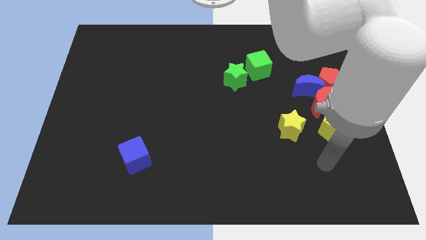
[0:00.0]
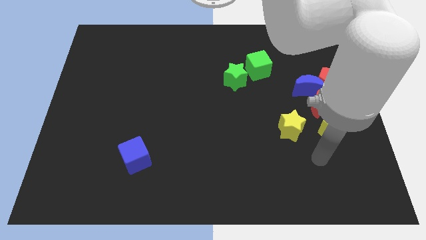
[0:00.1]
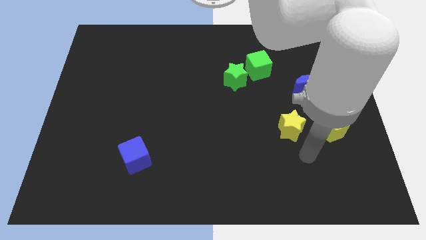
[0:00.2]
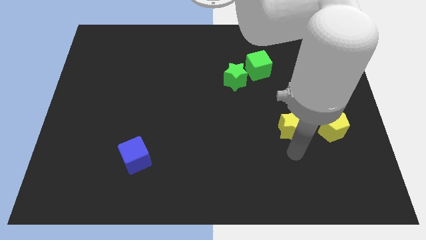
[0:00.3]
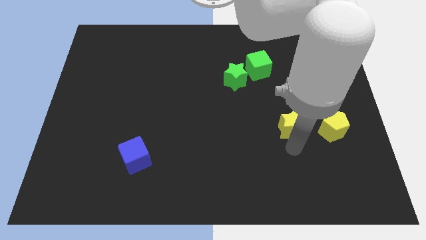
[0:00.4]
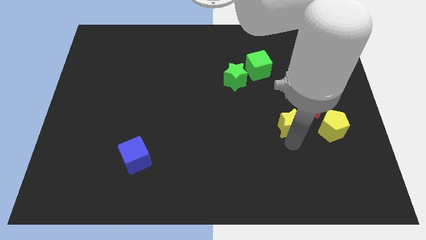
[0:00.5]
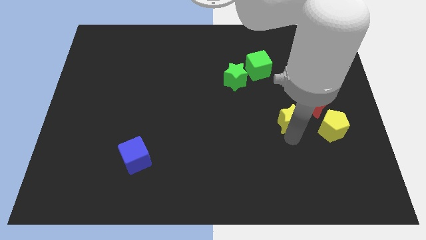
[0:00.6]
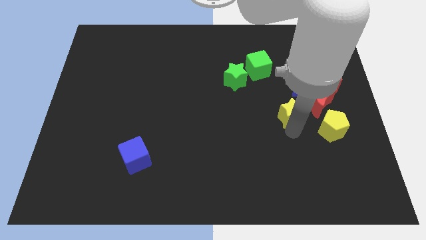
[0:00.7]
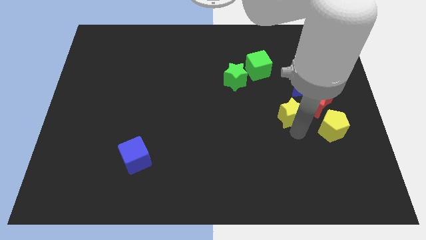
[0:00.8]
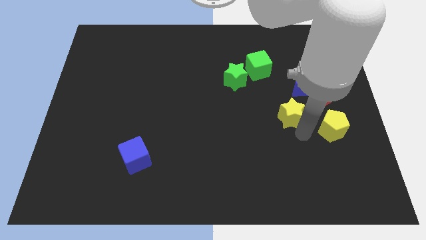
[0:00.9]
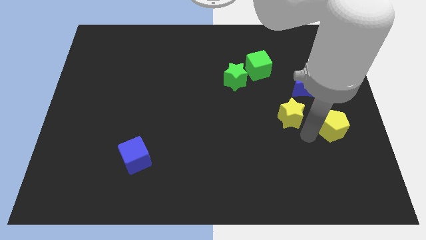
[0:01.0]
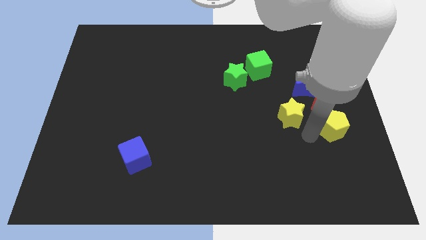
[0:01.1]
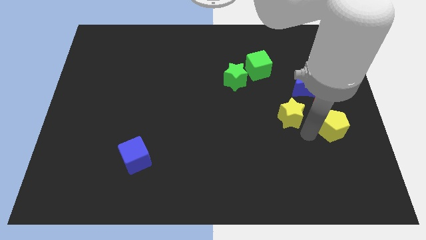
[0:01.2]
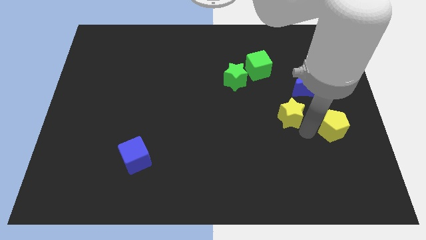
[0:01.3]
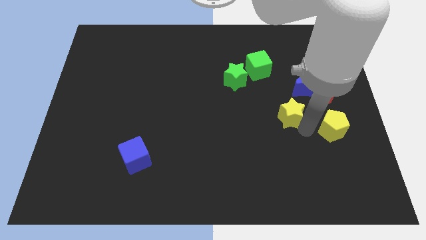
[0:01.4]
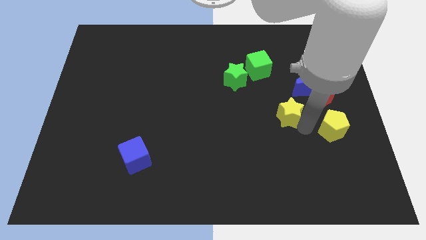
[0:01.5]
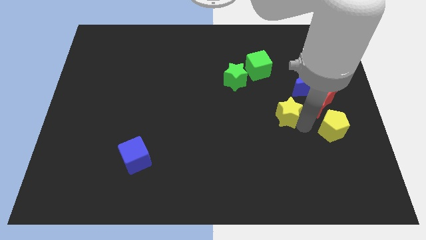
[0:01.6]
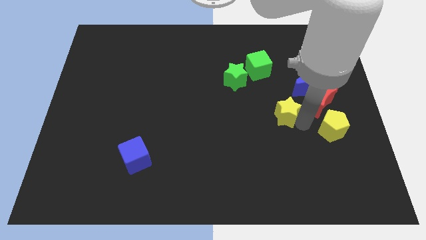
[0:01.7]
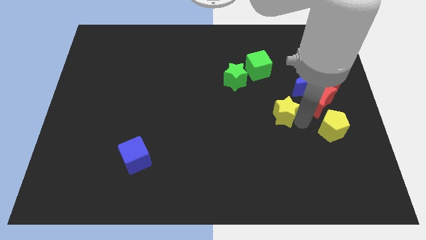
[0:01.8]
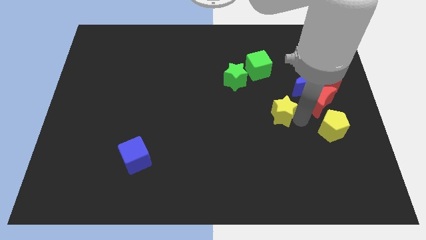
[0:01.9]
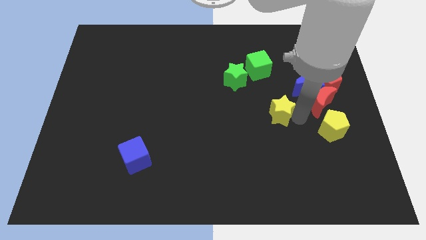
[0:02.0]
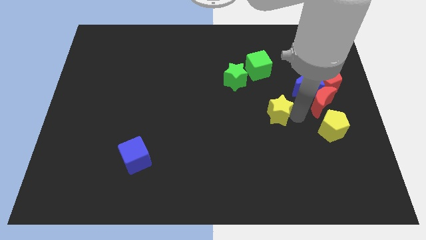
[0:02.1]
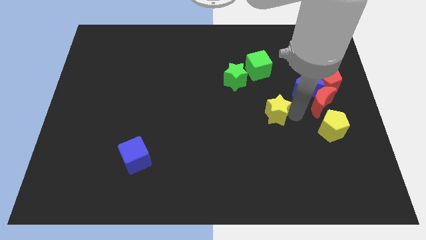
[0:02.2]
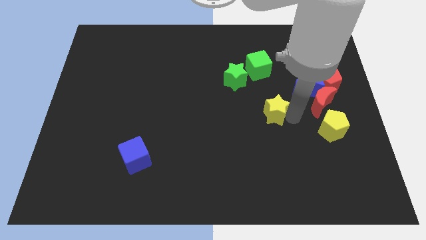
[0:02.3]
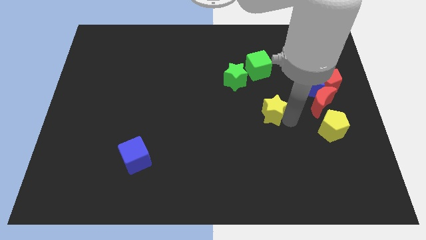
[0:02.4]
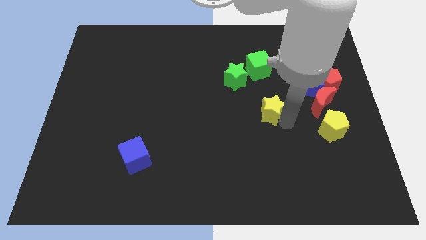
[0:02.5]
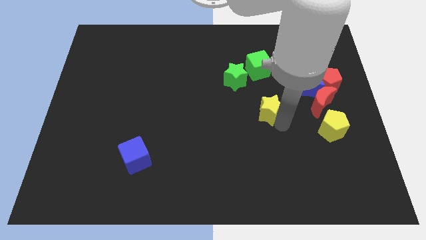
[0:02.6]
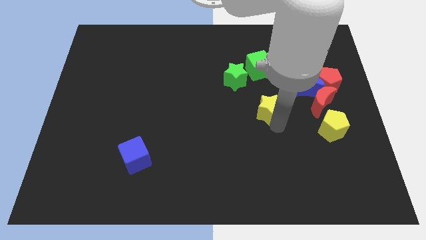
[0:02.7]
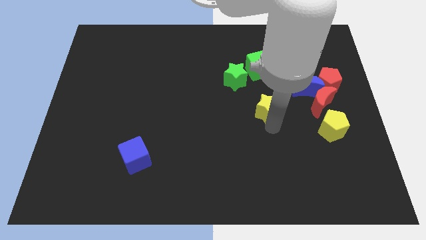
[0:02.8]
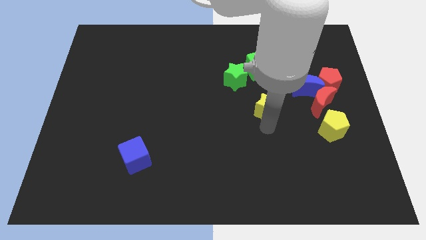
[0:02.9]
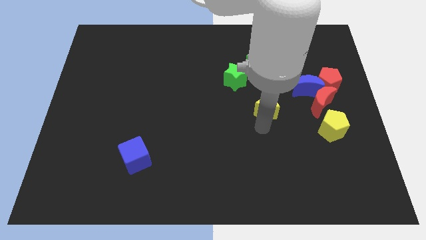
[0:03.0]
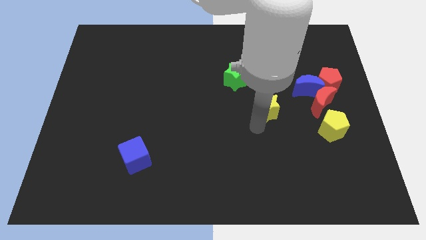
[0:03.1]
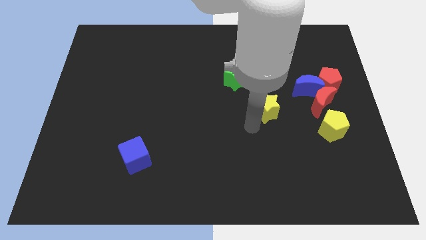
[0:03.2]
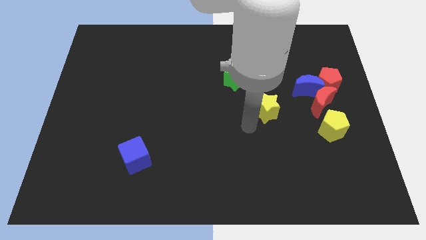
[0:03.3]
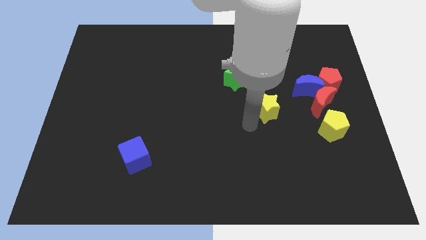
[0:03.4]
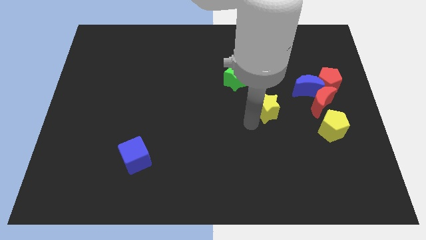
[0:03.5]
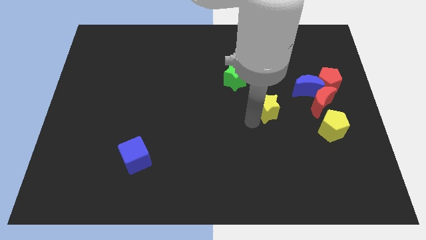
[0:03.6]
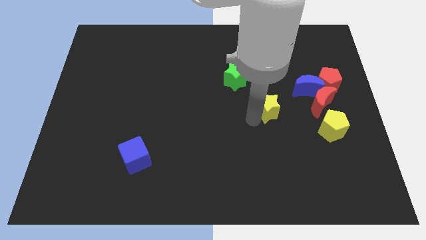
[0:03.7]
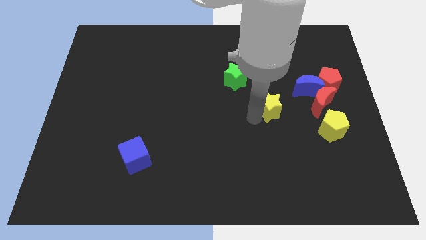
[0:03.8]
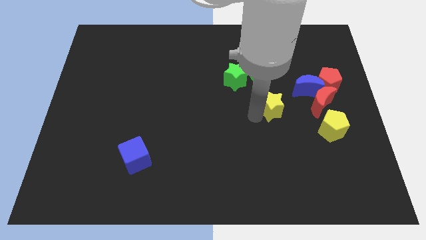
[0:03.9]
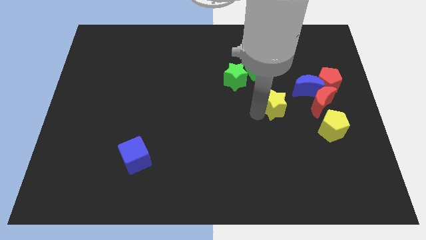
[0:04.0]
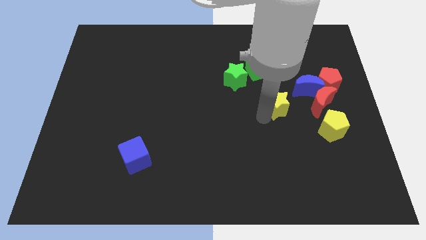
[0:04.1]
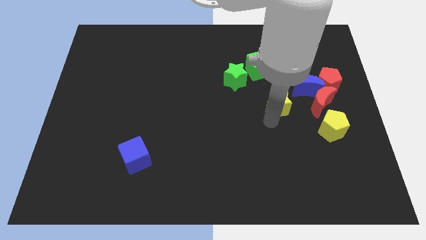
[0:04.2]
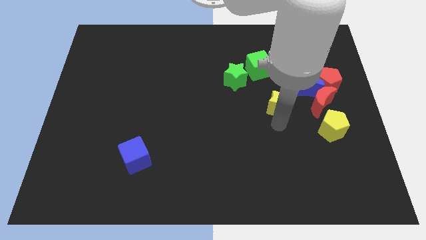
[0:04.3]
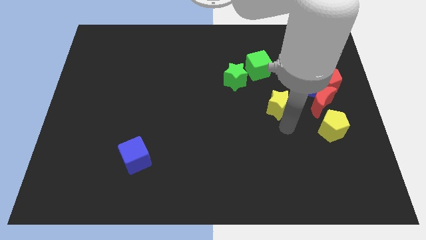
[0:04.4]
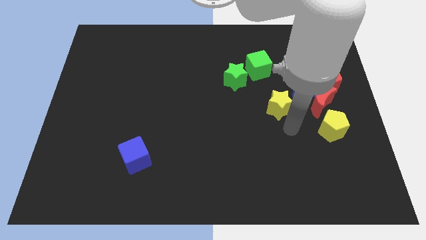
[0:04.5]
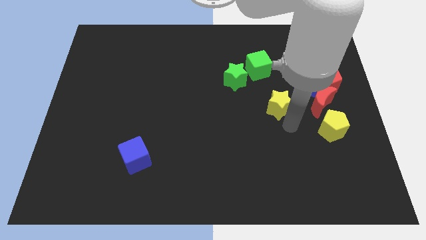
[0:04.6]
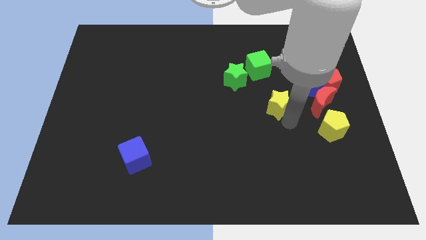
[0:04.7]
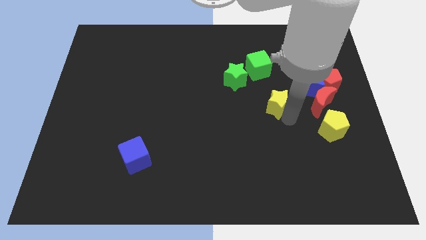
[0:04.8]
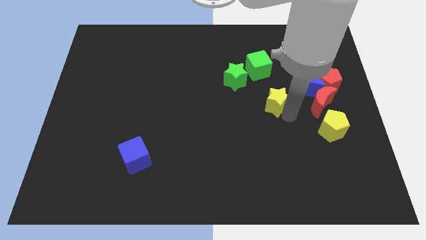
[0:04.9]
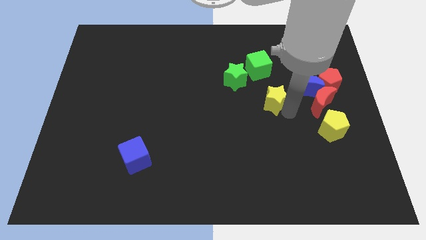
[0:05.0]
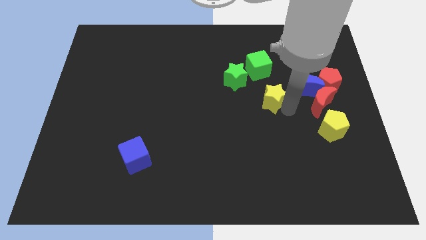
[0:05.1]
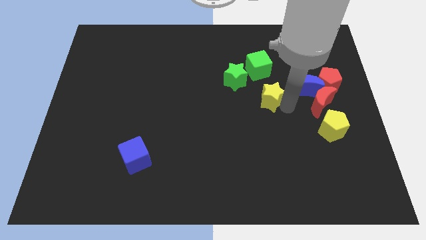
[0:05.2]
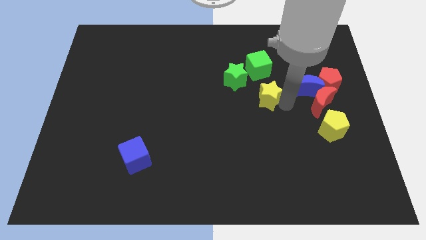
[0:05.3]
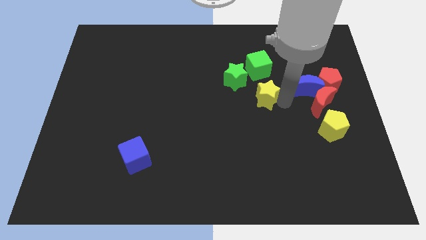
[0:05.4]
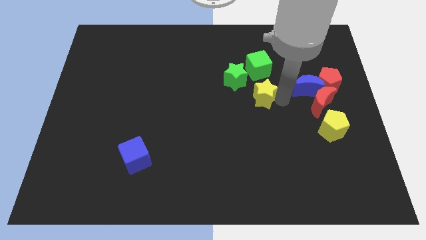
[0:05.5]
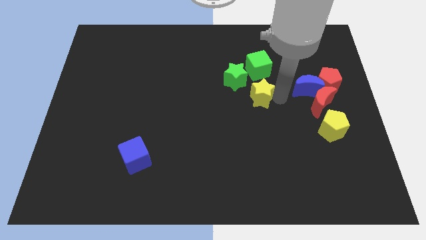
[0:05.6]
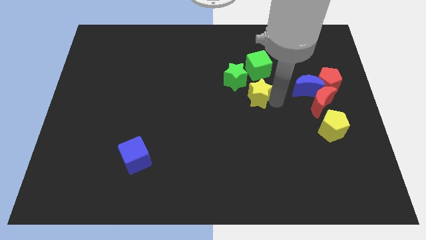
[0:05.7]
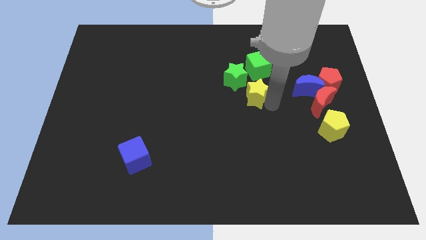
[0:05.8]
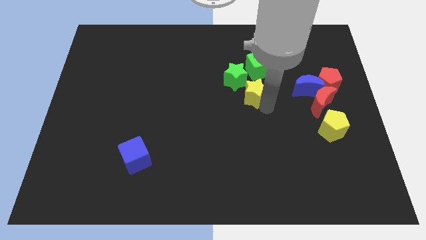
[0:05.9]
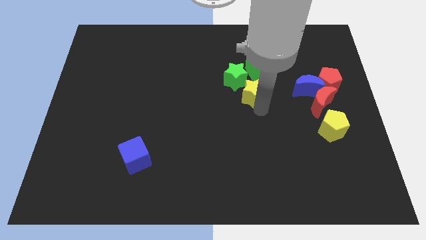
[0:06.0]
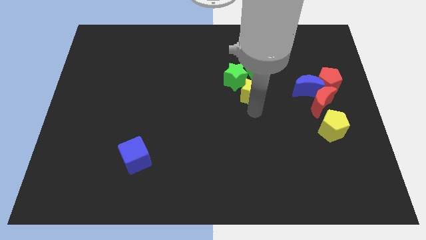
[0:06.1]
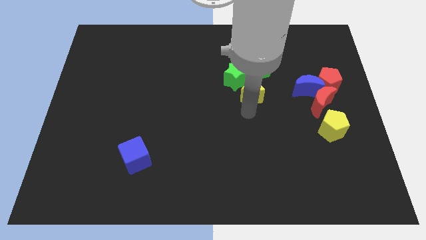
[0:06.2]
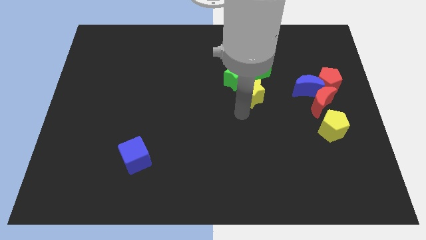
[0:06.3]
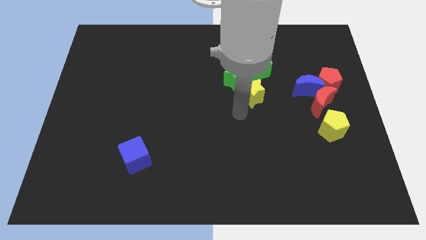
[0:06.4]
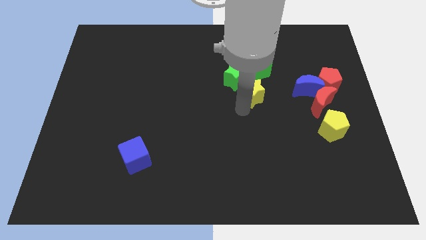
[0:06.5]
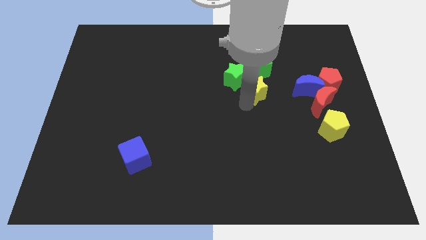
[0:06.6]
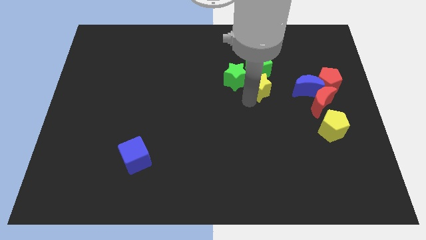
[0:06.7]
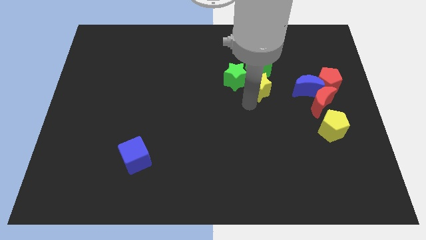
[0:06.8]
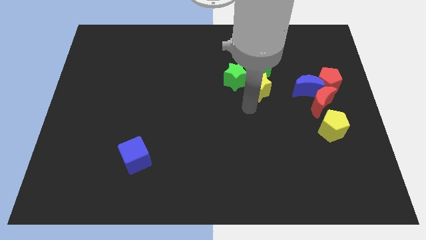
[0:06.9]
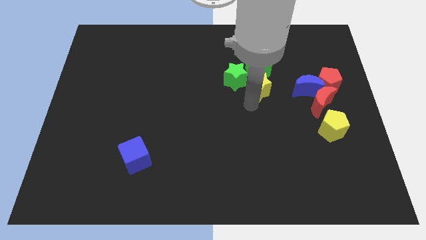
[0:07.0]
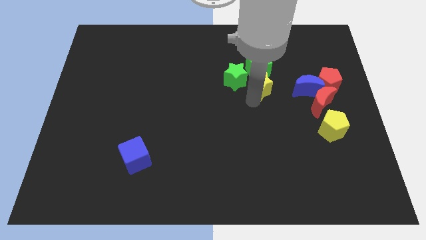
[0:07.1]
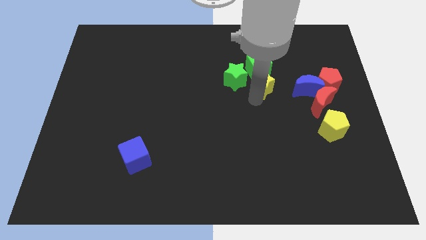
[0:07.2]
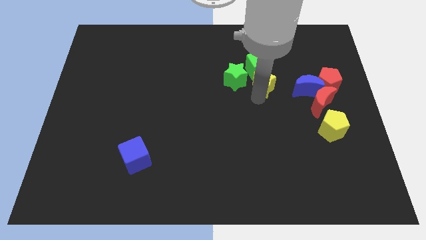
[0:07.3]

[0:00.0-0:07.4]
put the yellow star close to the green cube
